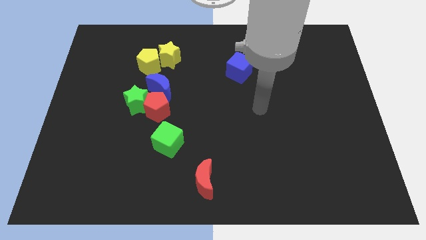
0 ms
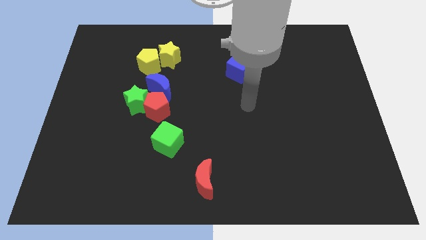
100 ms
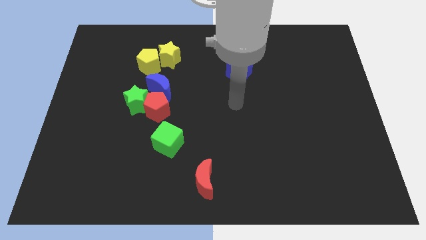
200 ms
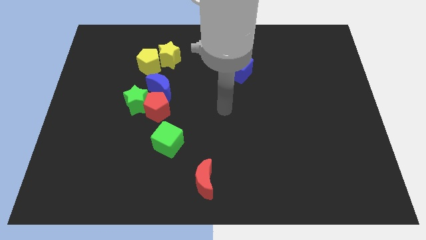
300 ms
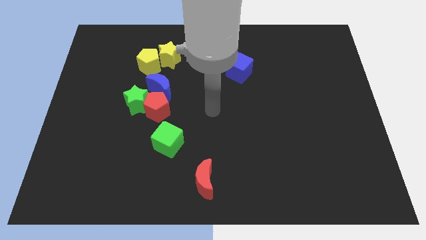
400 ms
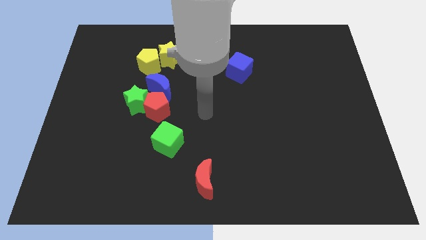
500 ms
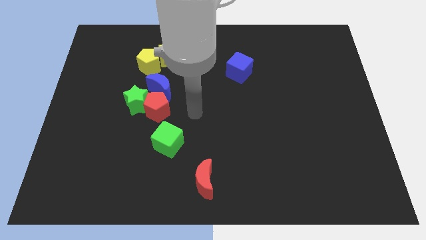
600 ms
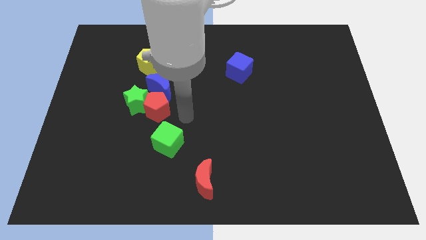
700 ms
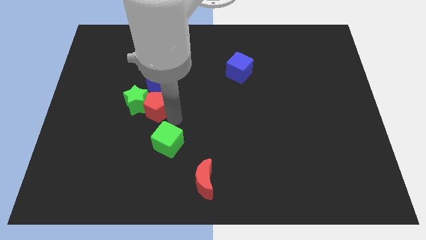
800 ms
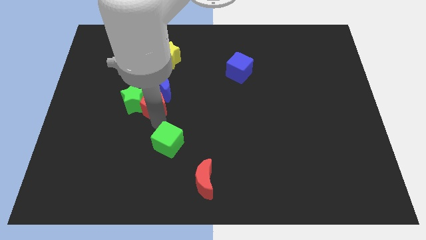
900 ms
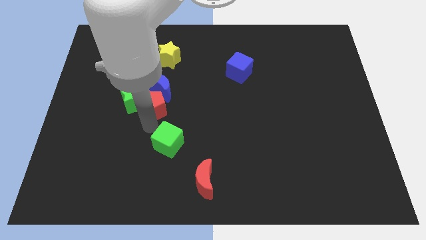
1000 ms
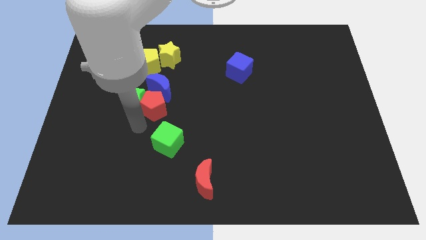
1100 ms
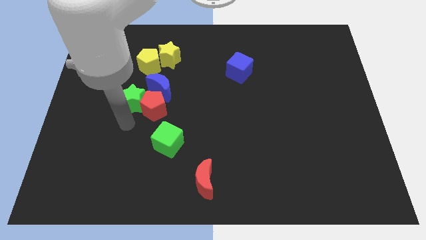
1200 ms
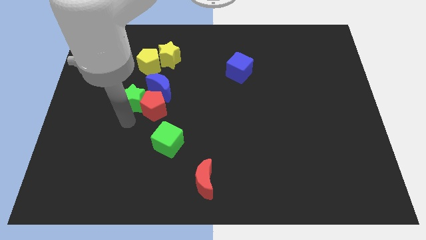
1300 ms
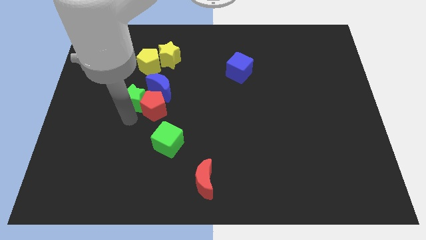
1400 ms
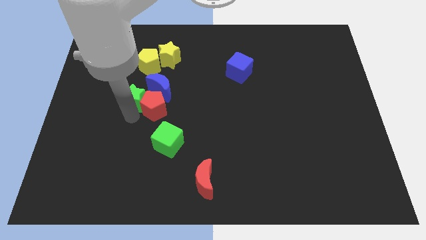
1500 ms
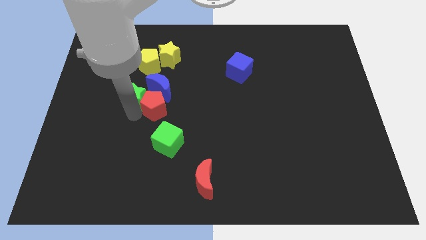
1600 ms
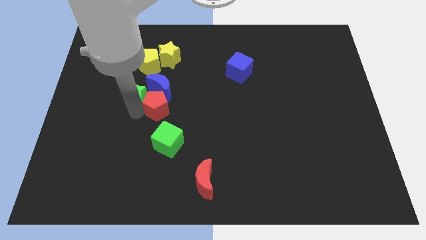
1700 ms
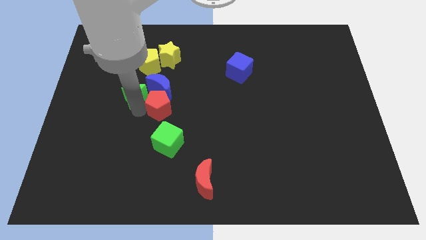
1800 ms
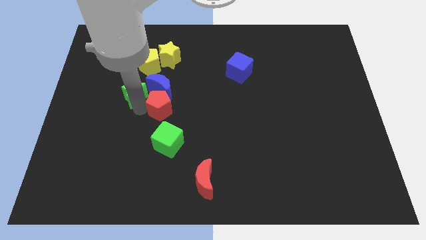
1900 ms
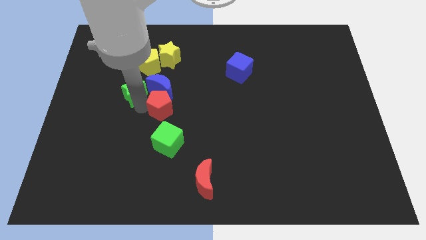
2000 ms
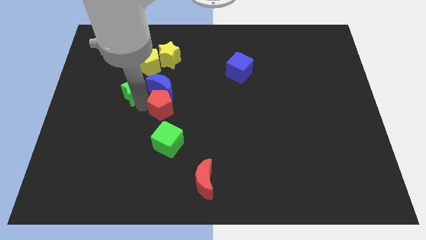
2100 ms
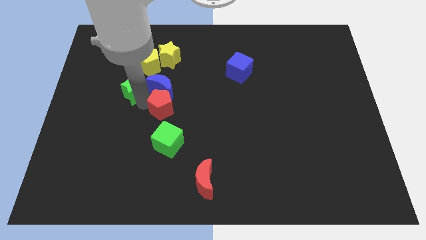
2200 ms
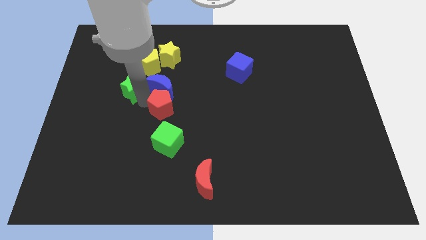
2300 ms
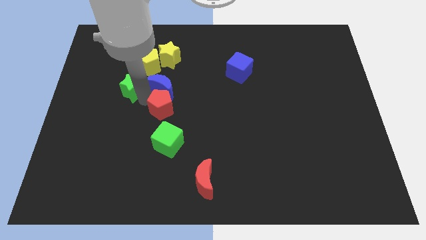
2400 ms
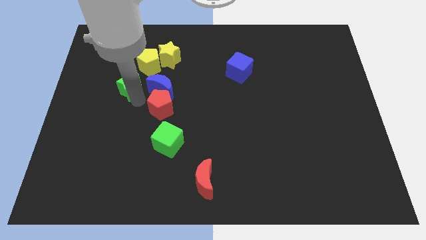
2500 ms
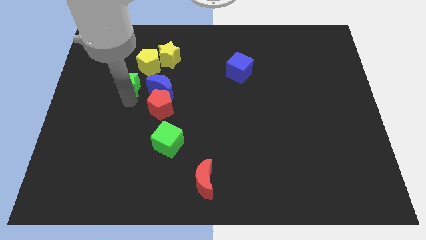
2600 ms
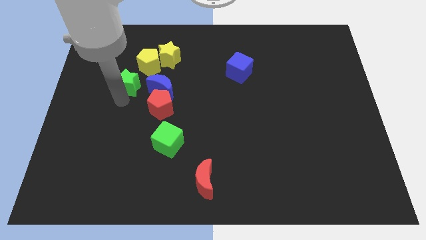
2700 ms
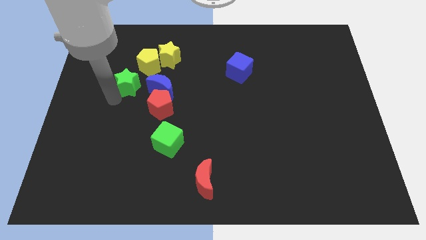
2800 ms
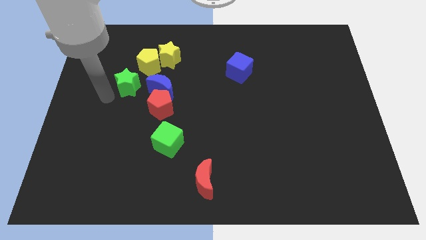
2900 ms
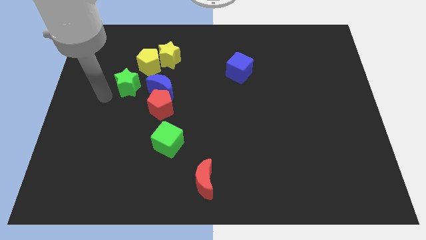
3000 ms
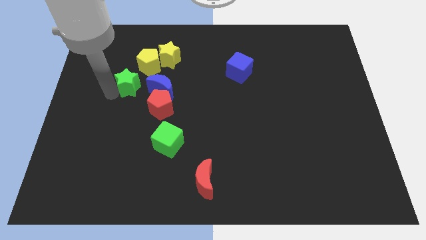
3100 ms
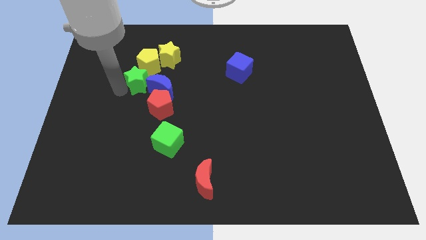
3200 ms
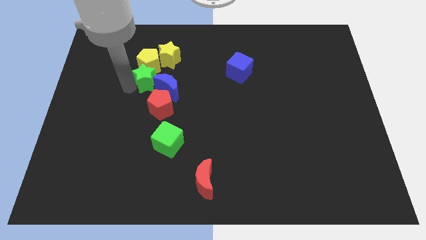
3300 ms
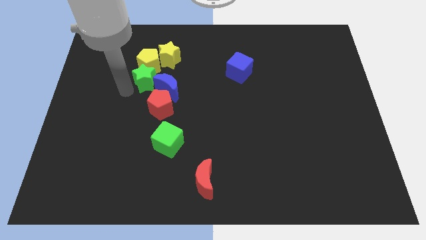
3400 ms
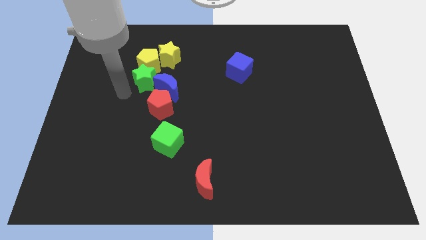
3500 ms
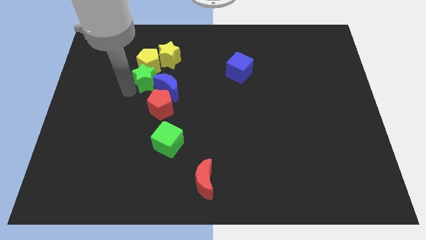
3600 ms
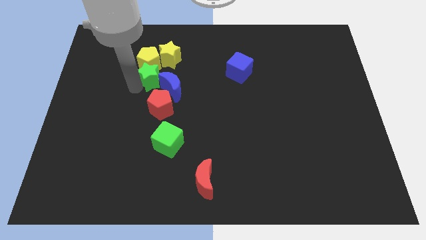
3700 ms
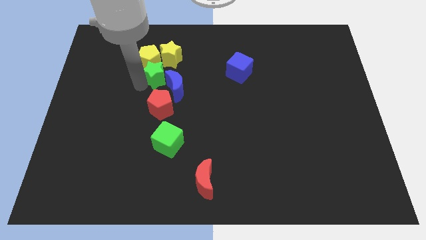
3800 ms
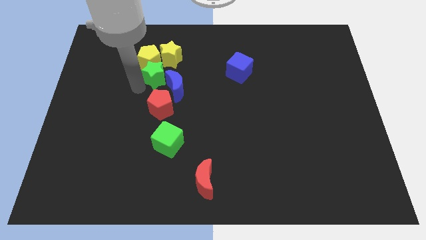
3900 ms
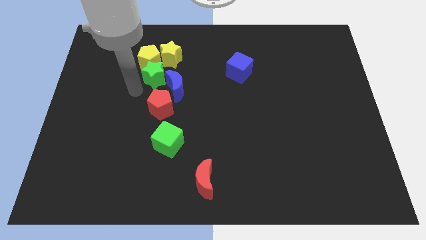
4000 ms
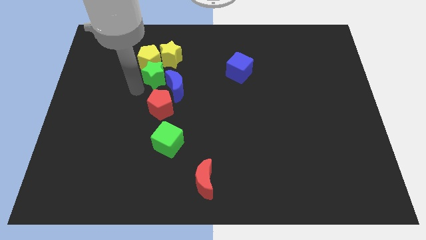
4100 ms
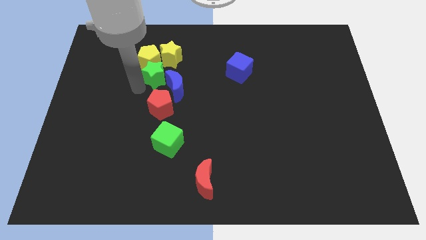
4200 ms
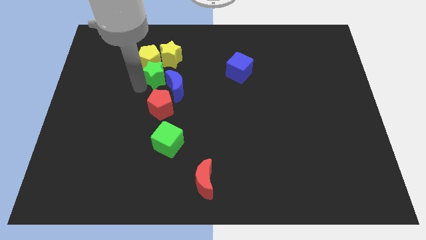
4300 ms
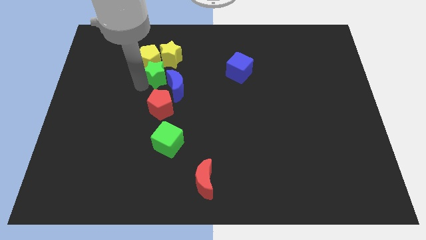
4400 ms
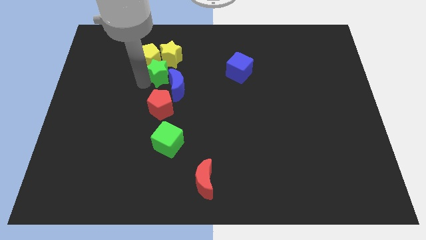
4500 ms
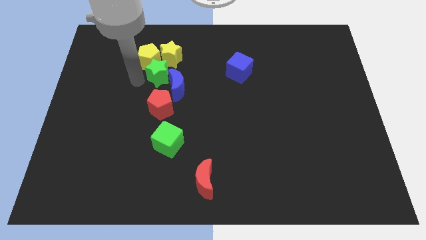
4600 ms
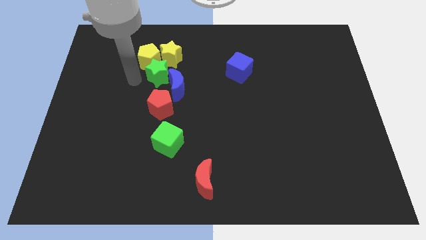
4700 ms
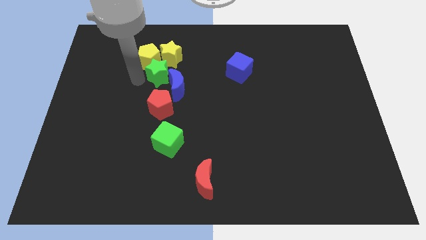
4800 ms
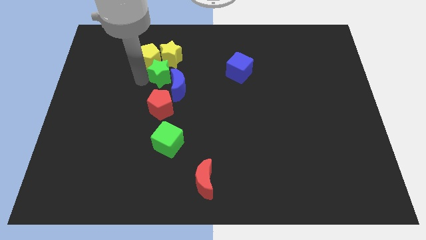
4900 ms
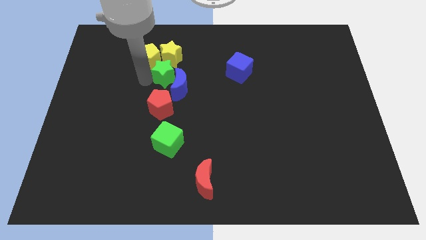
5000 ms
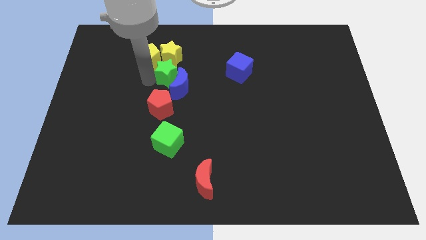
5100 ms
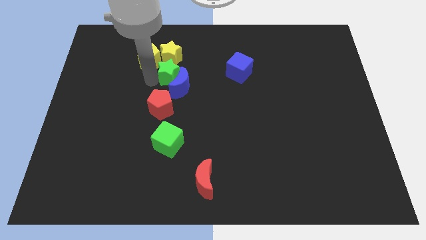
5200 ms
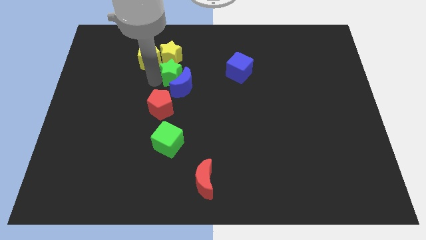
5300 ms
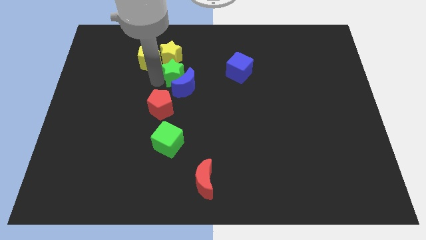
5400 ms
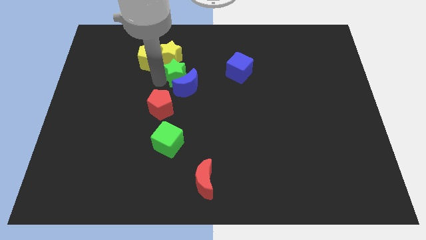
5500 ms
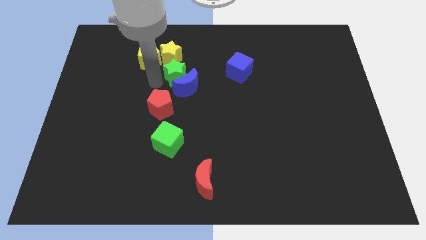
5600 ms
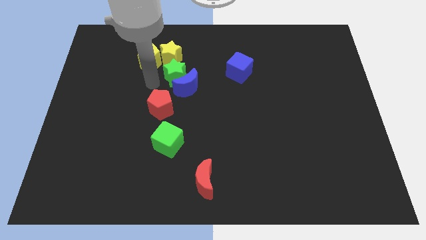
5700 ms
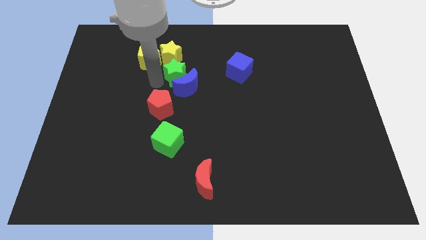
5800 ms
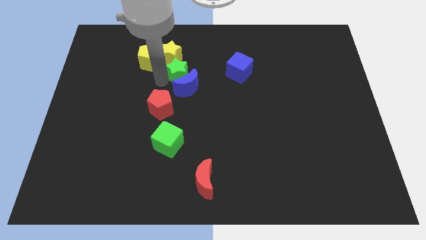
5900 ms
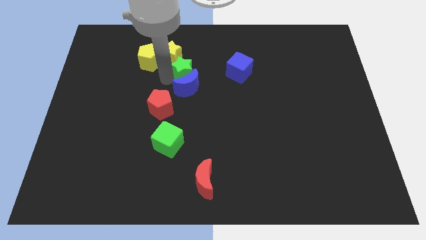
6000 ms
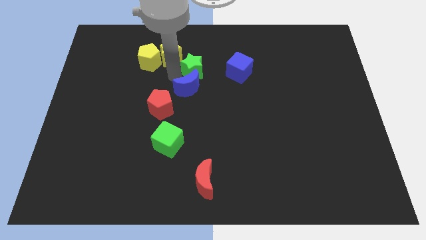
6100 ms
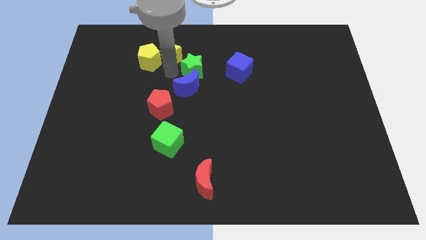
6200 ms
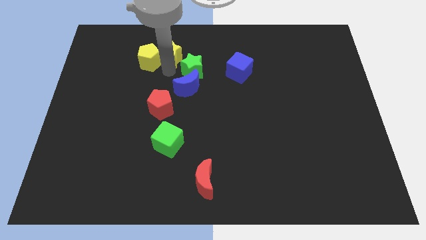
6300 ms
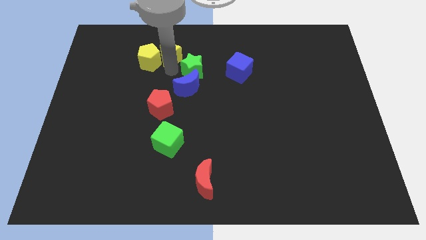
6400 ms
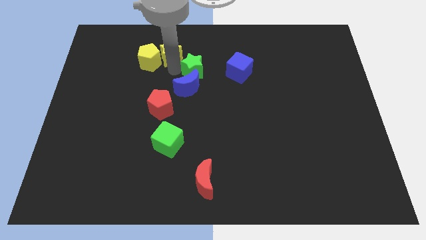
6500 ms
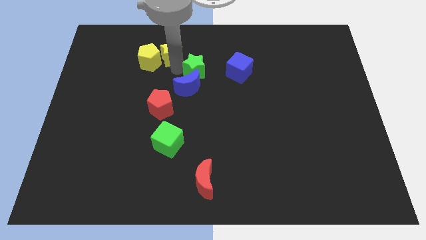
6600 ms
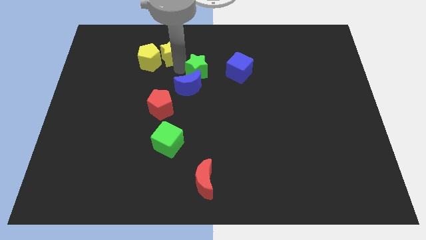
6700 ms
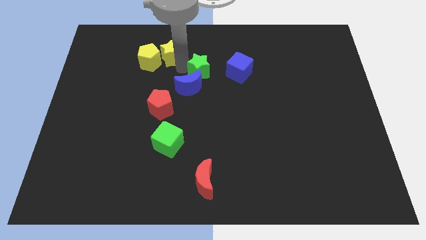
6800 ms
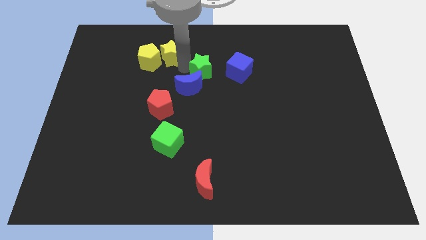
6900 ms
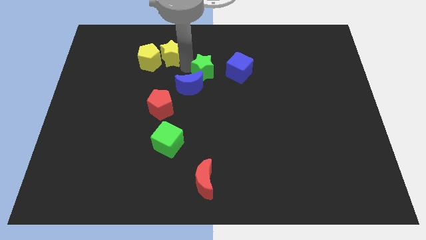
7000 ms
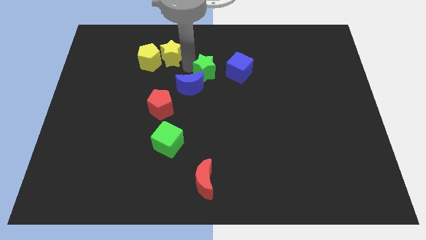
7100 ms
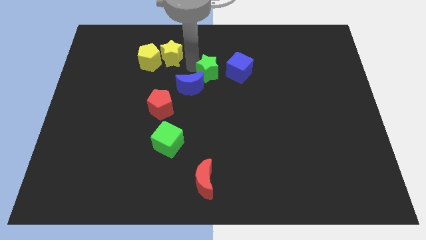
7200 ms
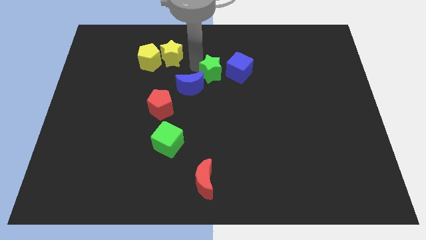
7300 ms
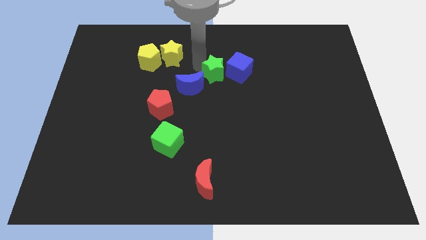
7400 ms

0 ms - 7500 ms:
push the green star towards the blue cube

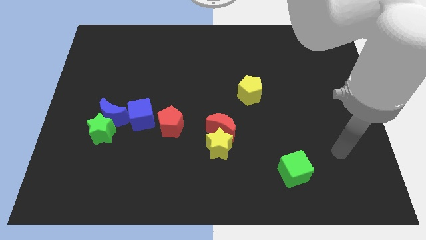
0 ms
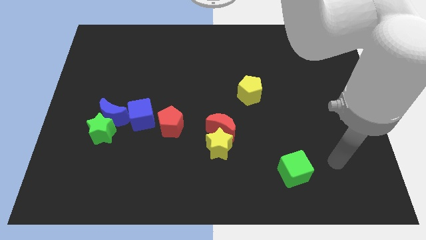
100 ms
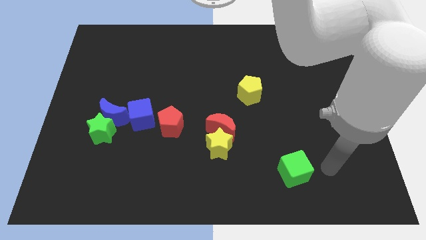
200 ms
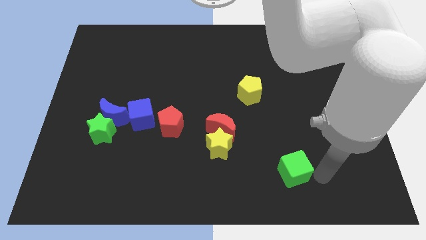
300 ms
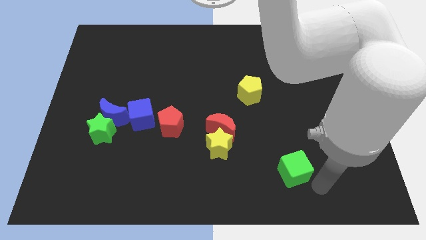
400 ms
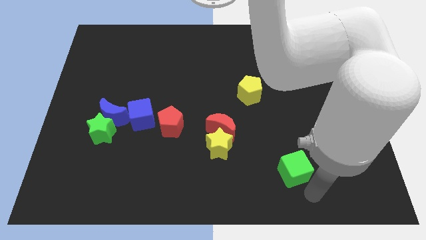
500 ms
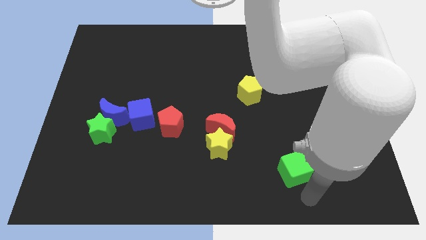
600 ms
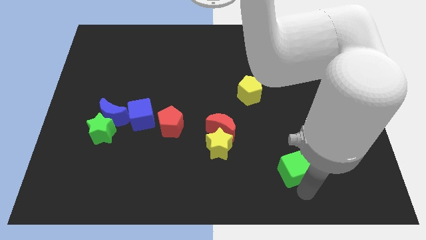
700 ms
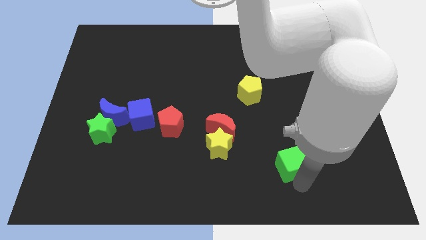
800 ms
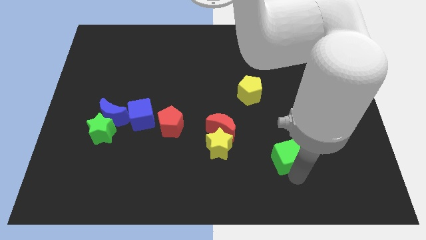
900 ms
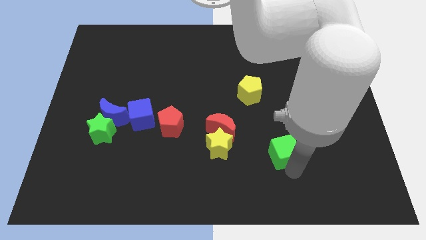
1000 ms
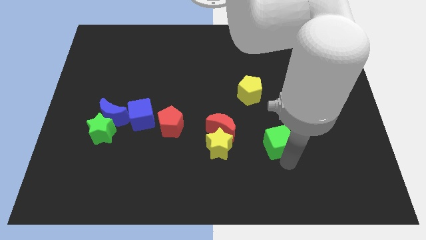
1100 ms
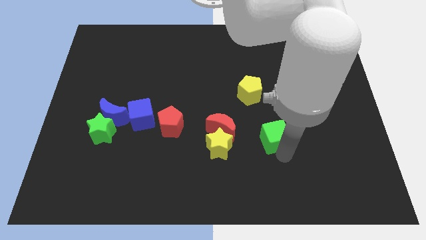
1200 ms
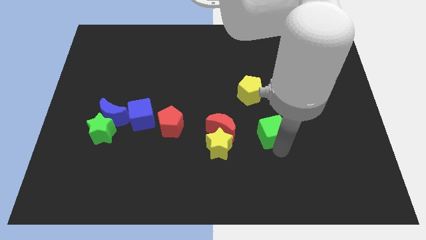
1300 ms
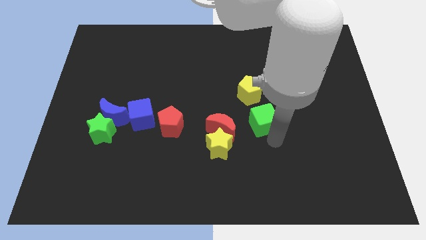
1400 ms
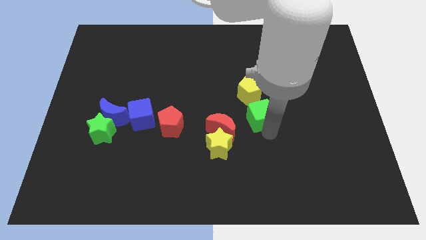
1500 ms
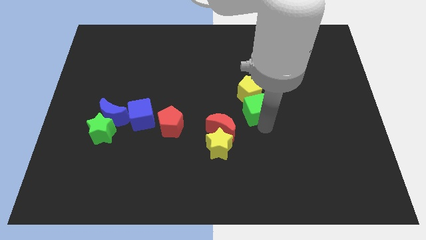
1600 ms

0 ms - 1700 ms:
move the green cube to the yellow pentagon
